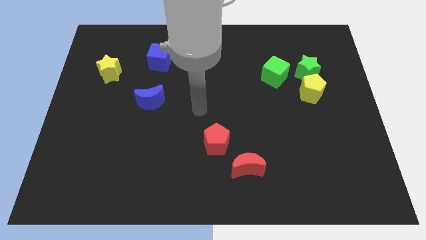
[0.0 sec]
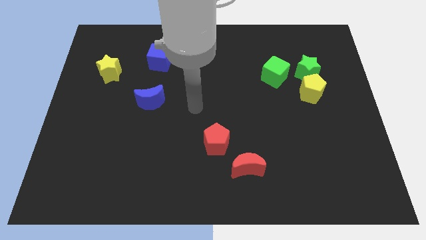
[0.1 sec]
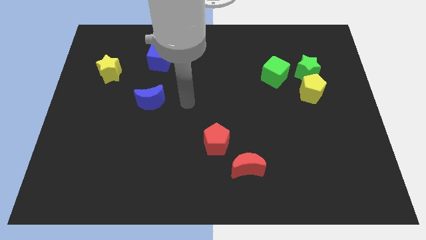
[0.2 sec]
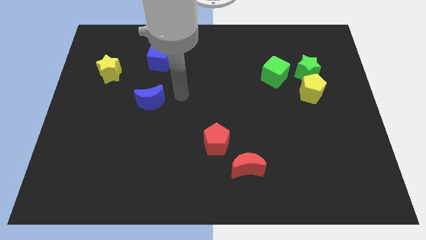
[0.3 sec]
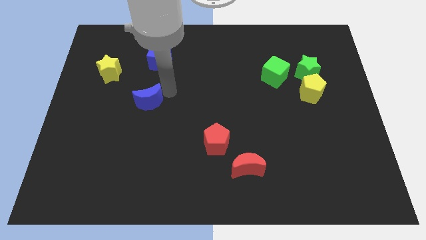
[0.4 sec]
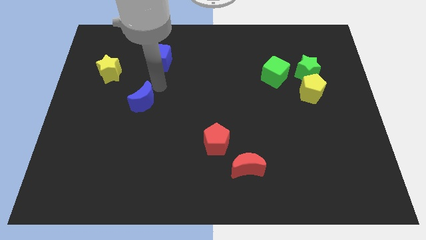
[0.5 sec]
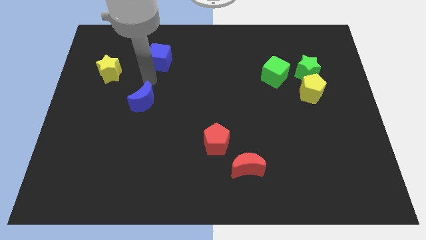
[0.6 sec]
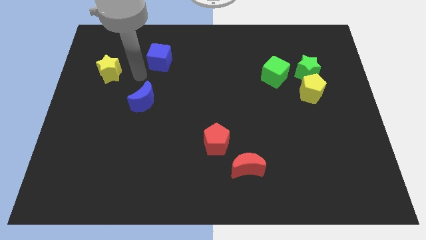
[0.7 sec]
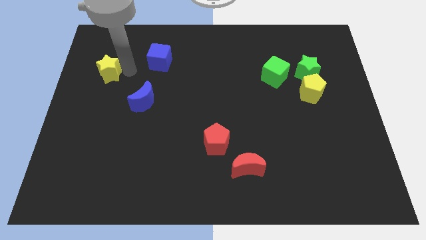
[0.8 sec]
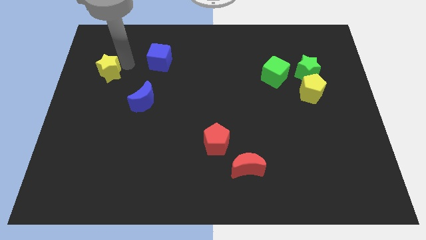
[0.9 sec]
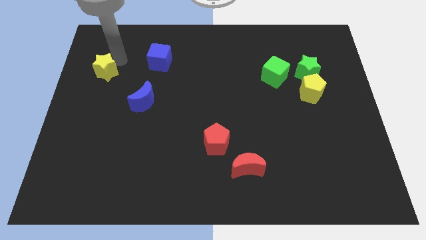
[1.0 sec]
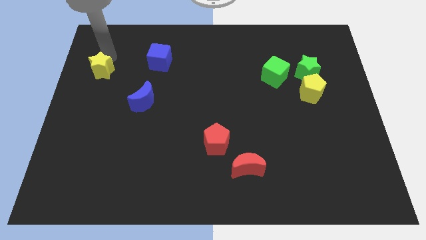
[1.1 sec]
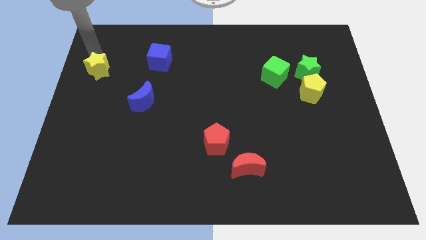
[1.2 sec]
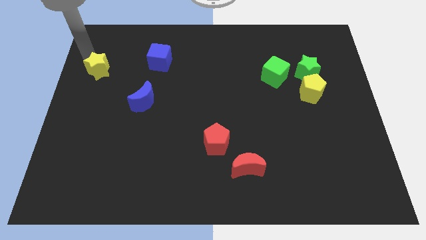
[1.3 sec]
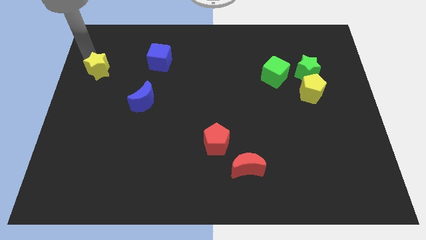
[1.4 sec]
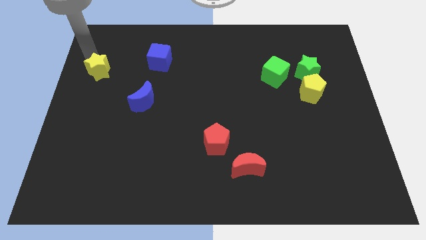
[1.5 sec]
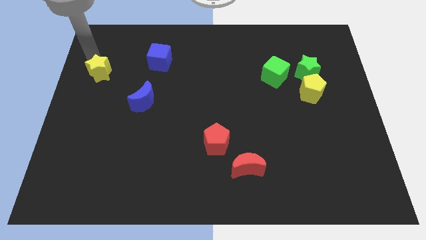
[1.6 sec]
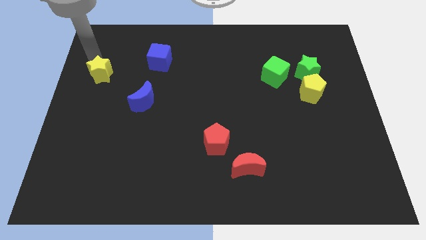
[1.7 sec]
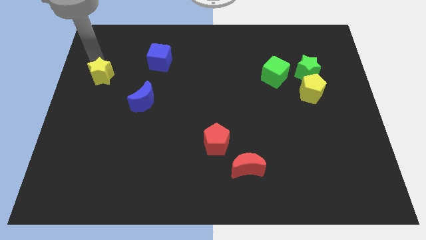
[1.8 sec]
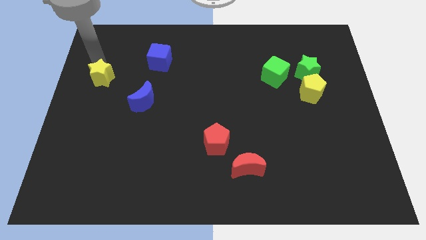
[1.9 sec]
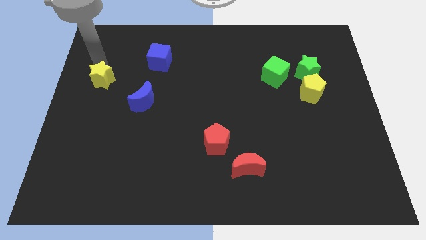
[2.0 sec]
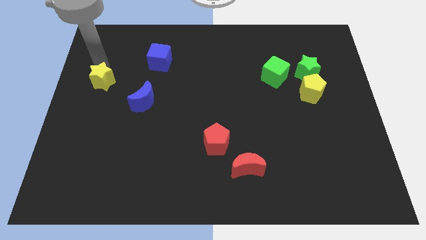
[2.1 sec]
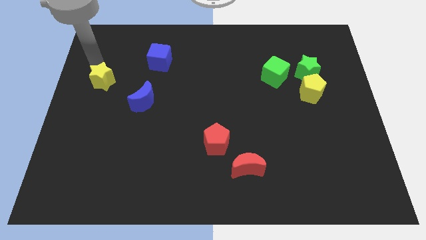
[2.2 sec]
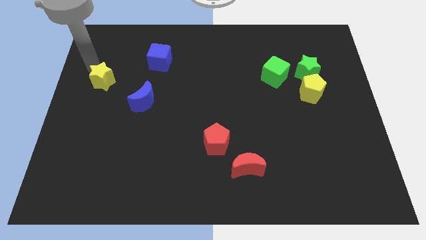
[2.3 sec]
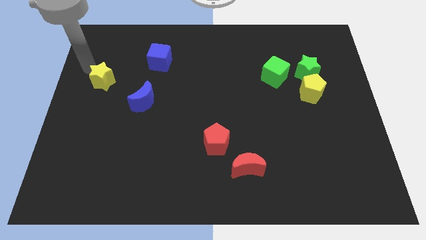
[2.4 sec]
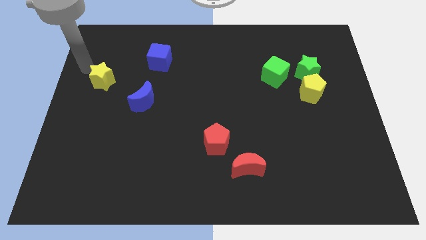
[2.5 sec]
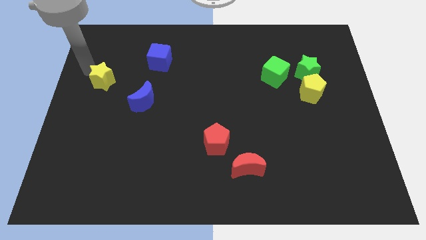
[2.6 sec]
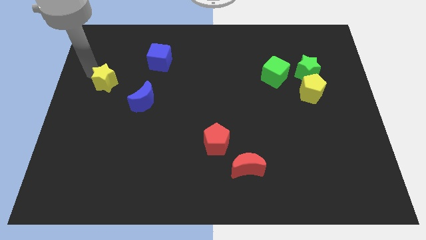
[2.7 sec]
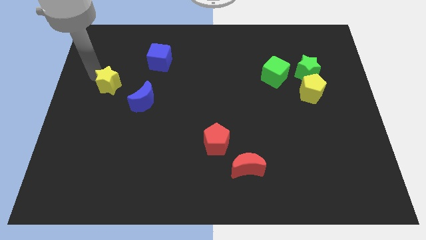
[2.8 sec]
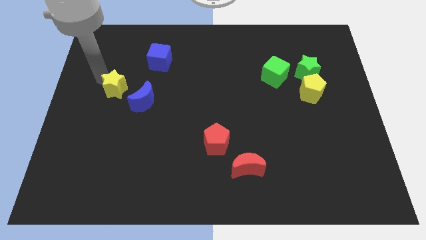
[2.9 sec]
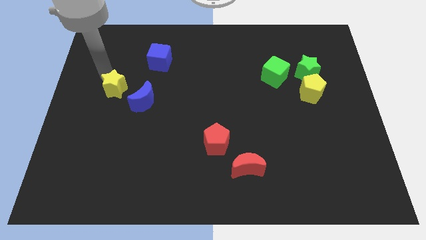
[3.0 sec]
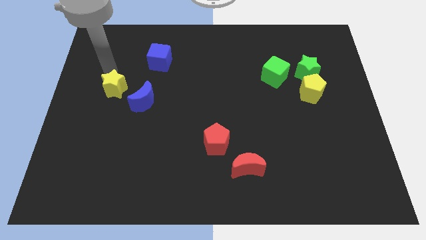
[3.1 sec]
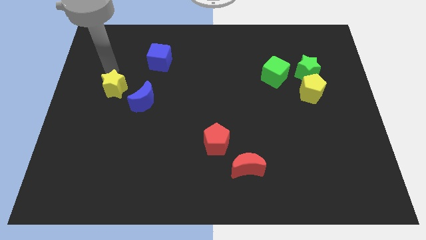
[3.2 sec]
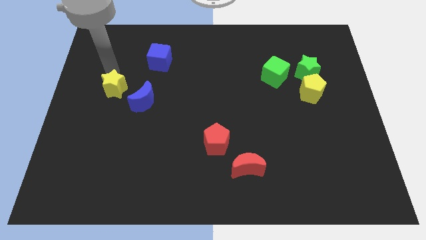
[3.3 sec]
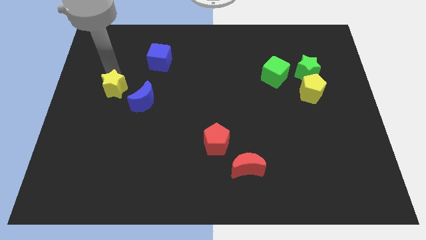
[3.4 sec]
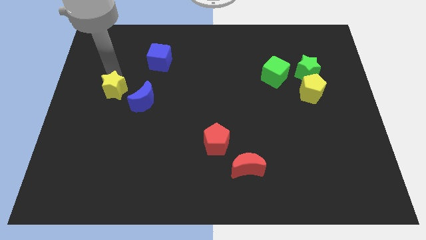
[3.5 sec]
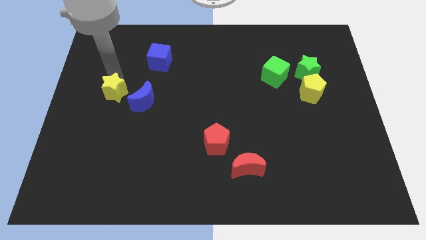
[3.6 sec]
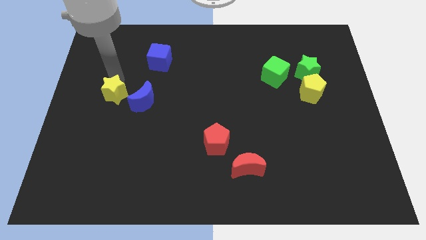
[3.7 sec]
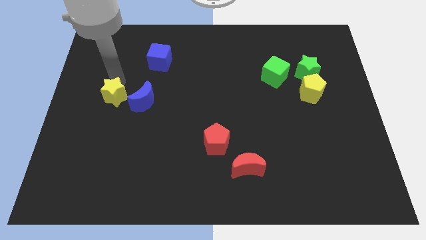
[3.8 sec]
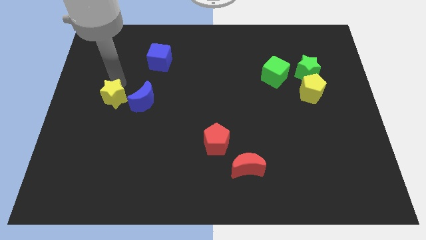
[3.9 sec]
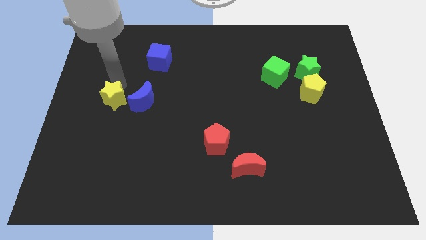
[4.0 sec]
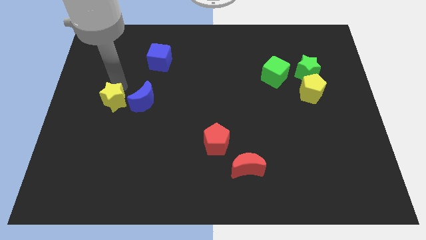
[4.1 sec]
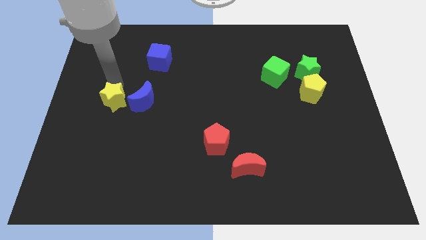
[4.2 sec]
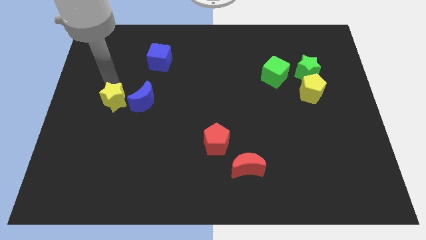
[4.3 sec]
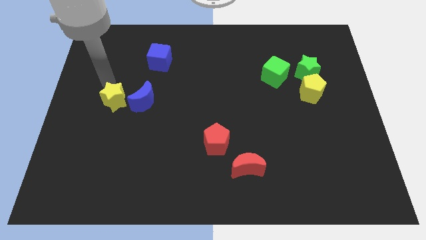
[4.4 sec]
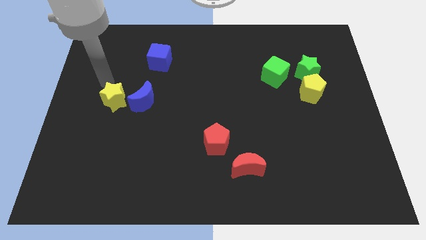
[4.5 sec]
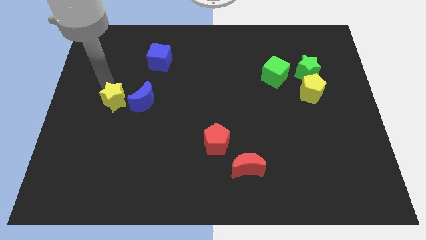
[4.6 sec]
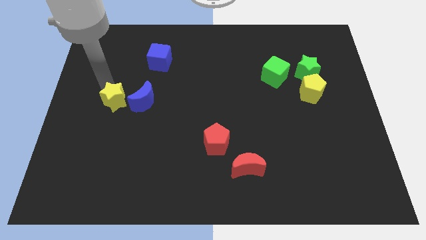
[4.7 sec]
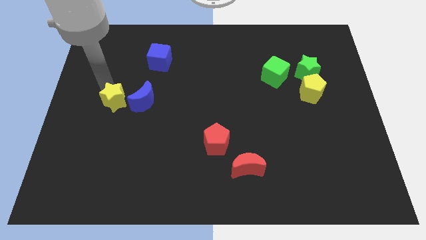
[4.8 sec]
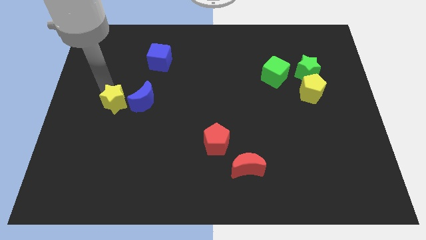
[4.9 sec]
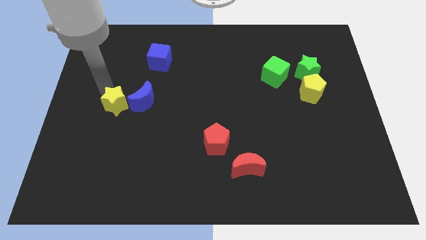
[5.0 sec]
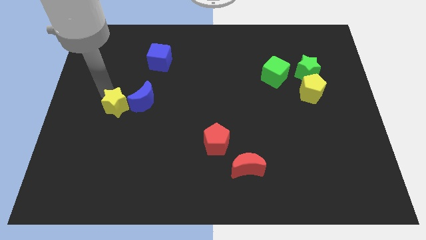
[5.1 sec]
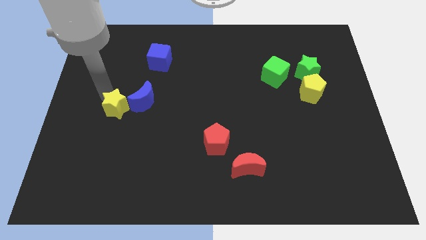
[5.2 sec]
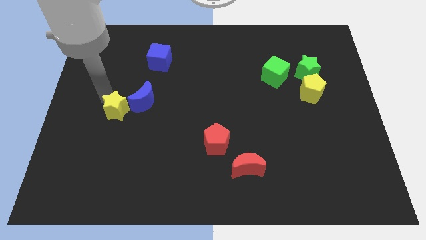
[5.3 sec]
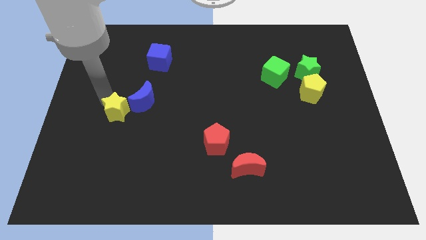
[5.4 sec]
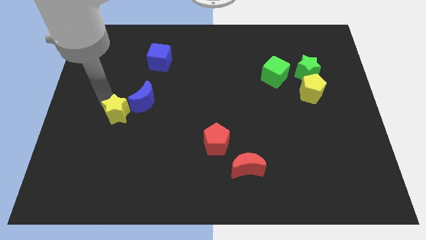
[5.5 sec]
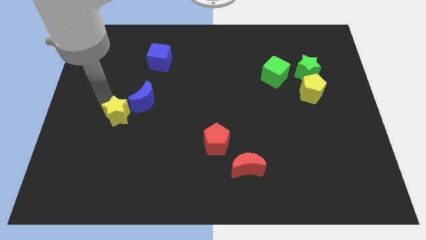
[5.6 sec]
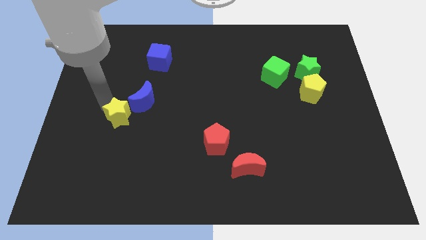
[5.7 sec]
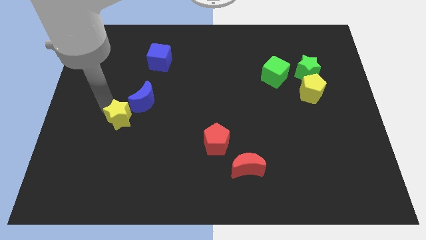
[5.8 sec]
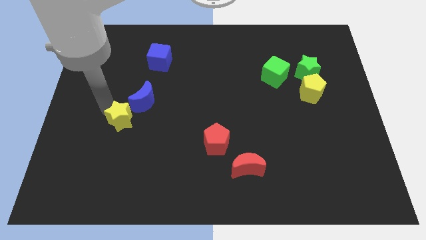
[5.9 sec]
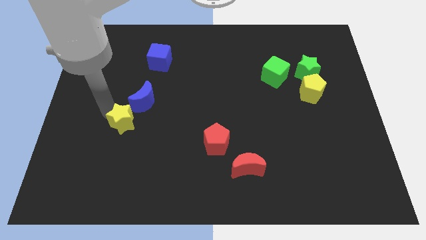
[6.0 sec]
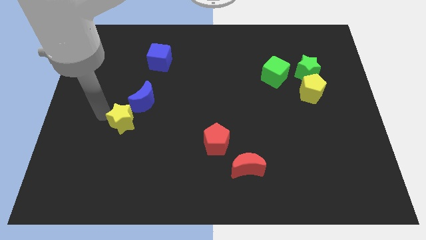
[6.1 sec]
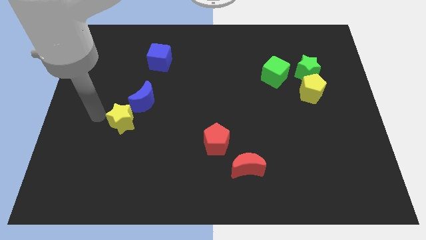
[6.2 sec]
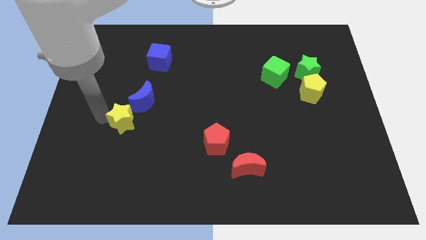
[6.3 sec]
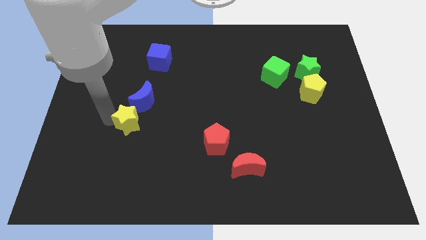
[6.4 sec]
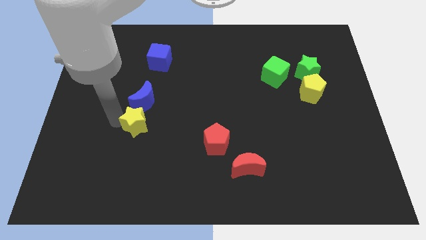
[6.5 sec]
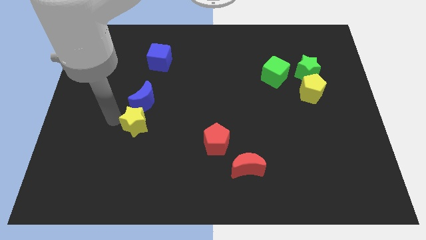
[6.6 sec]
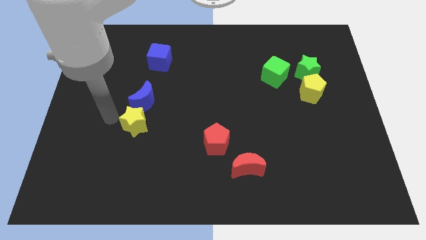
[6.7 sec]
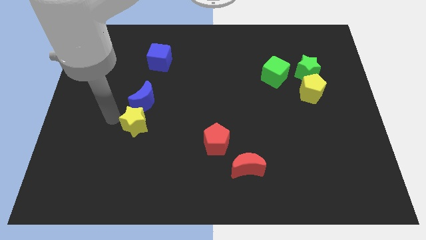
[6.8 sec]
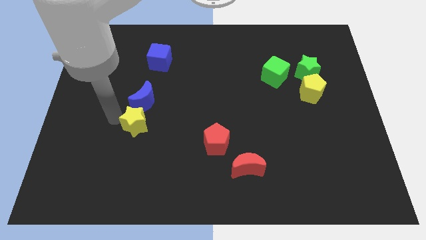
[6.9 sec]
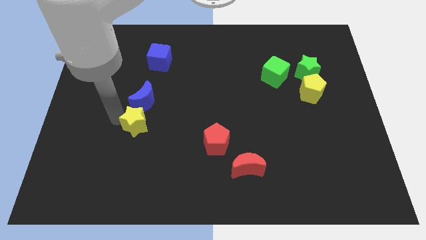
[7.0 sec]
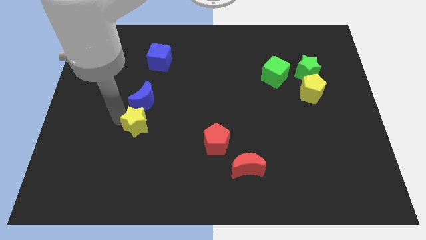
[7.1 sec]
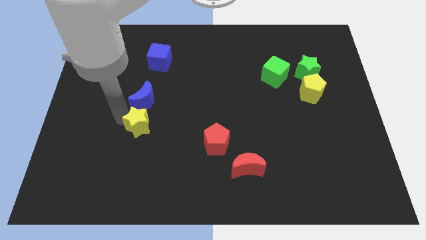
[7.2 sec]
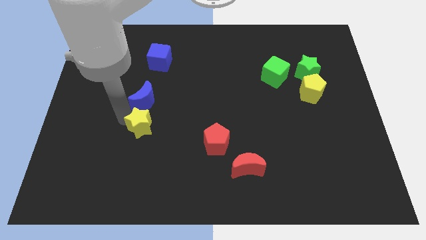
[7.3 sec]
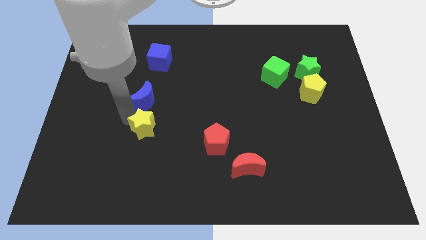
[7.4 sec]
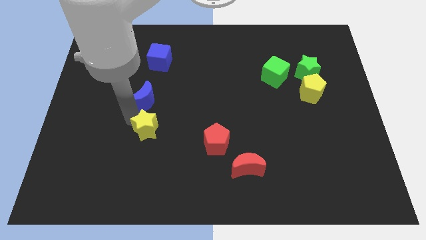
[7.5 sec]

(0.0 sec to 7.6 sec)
move the yellow star down and to the right diagonally

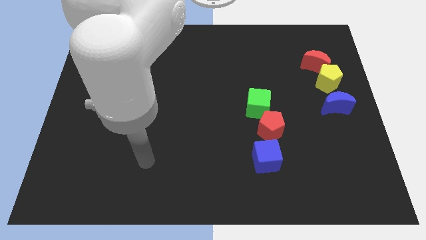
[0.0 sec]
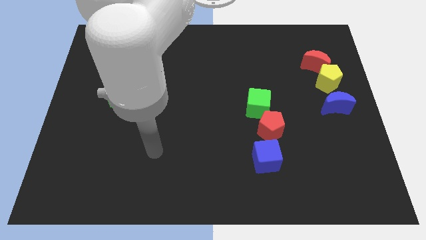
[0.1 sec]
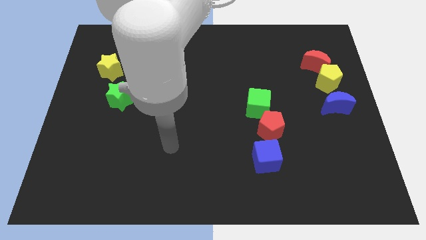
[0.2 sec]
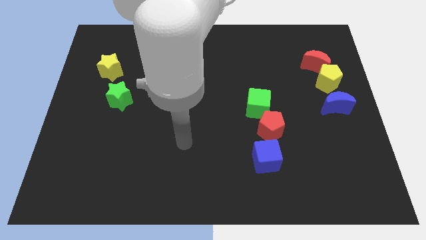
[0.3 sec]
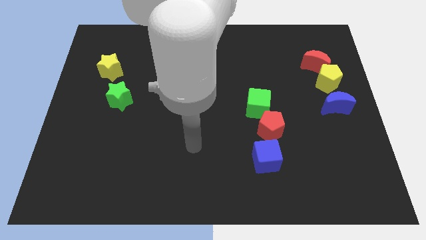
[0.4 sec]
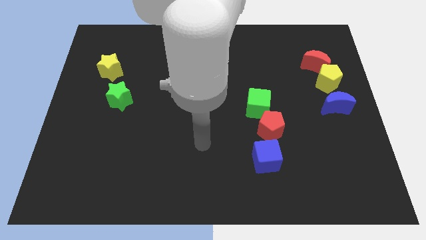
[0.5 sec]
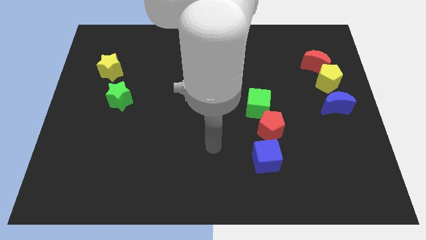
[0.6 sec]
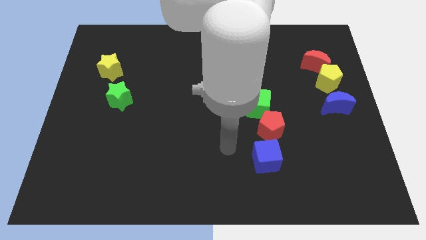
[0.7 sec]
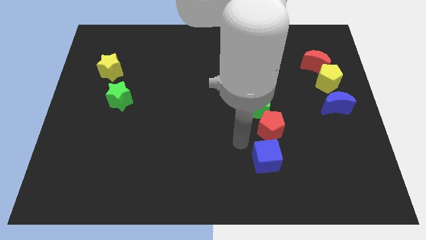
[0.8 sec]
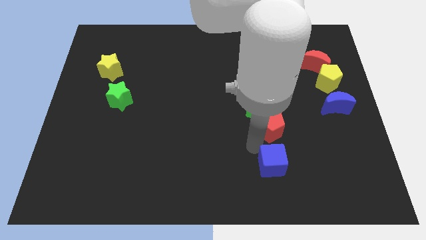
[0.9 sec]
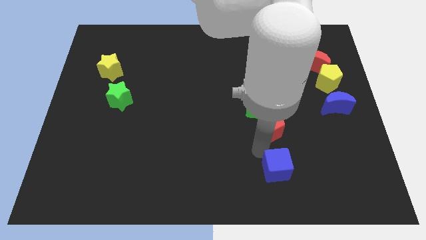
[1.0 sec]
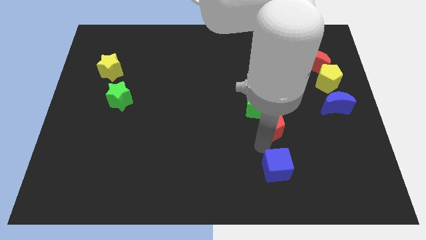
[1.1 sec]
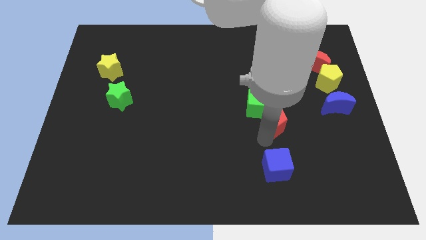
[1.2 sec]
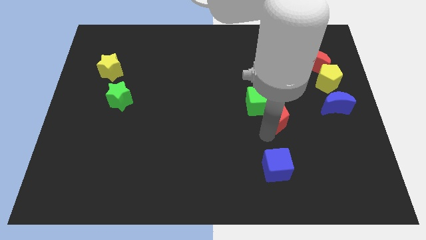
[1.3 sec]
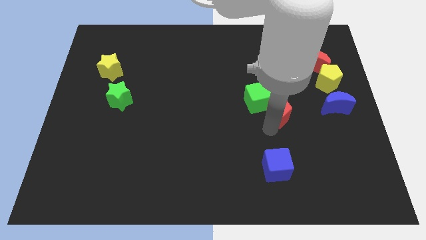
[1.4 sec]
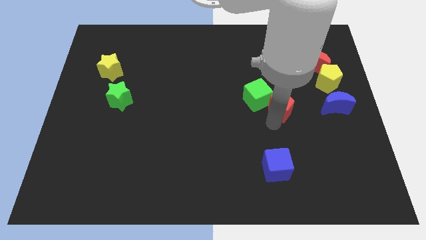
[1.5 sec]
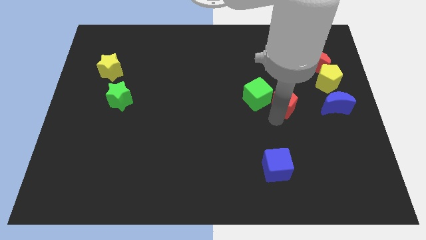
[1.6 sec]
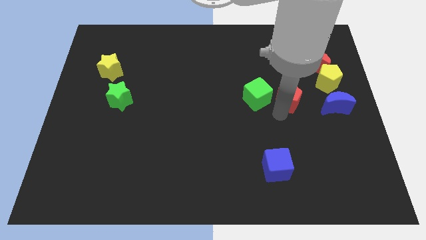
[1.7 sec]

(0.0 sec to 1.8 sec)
slightly slide the red pentagon up
